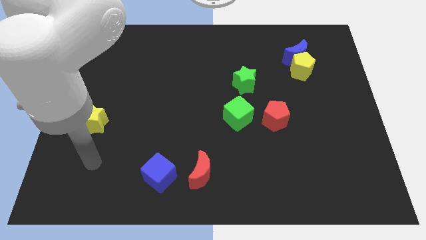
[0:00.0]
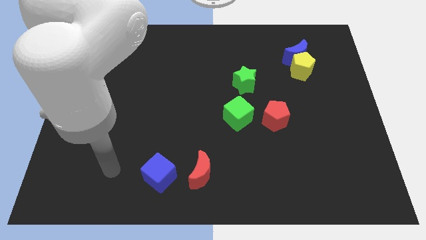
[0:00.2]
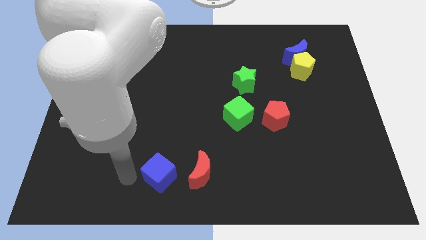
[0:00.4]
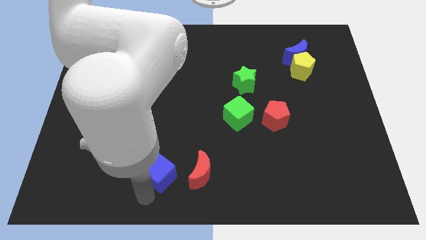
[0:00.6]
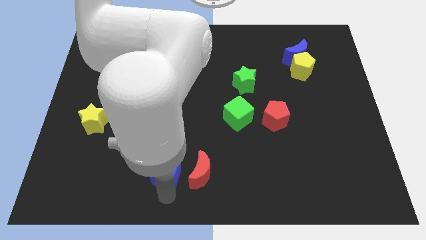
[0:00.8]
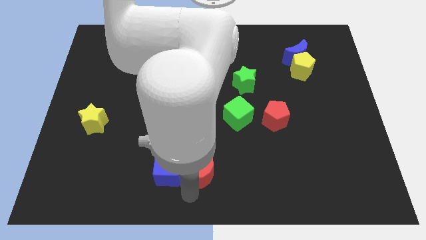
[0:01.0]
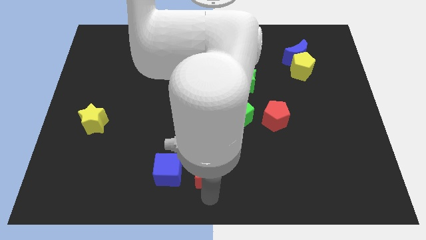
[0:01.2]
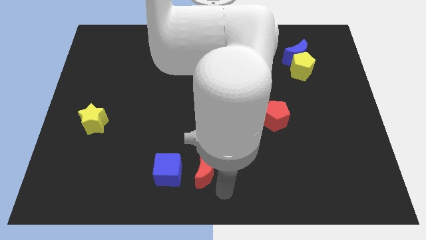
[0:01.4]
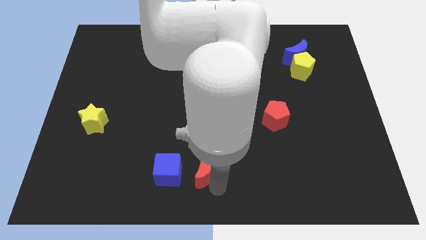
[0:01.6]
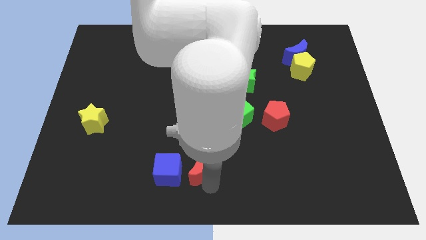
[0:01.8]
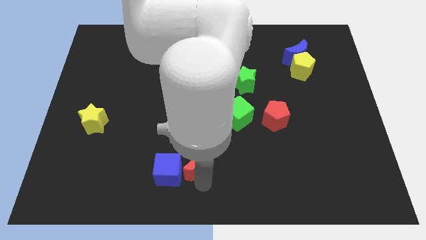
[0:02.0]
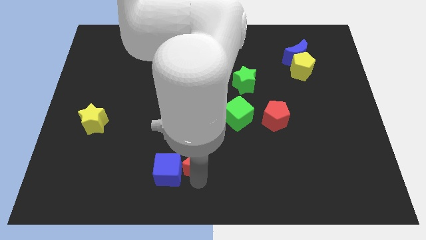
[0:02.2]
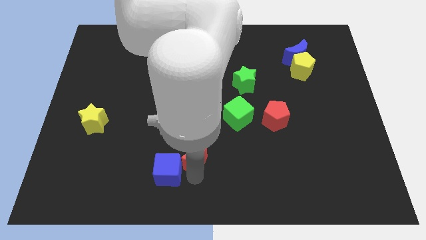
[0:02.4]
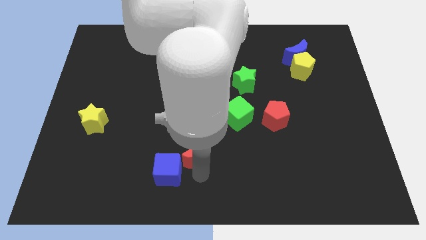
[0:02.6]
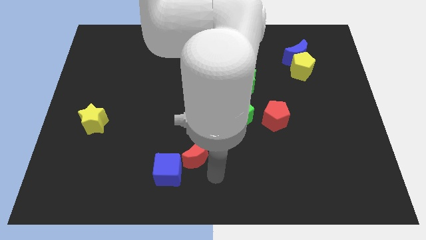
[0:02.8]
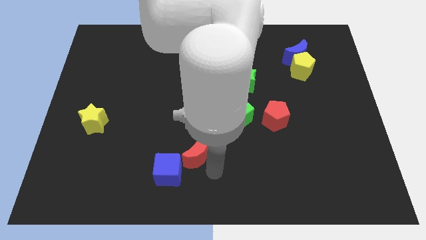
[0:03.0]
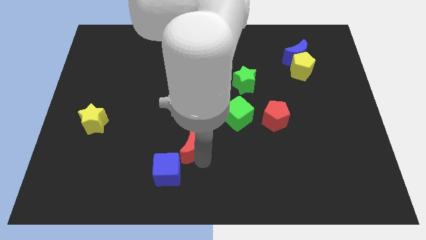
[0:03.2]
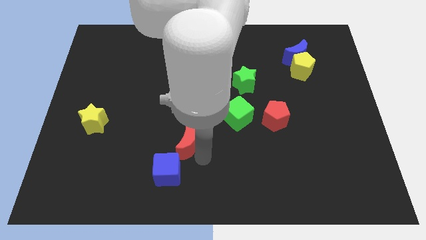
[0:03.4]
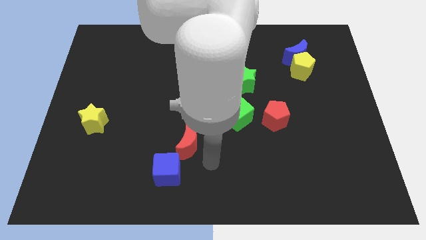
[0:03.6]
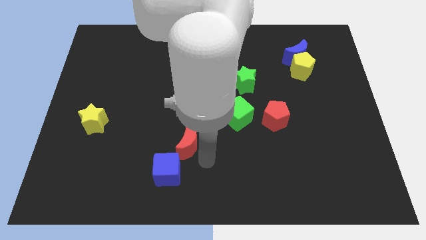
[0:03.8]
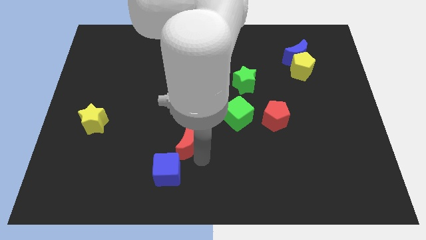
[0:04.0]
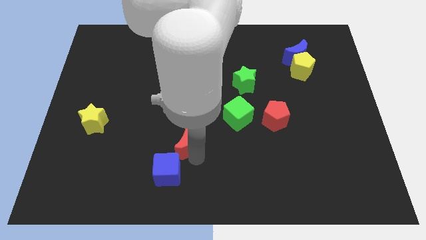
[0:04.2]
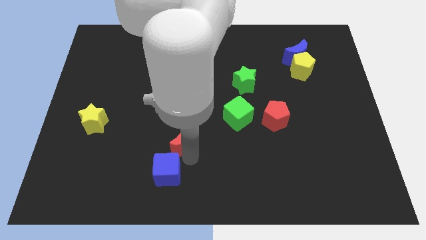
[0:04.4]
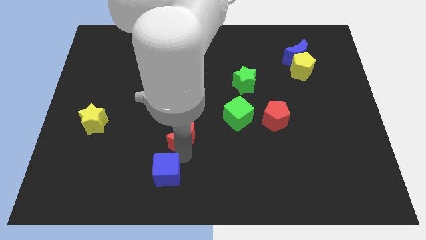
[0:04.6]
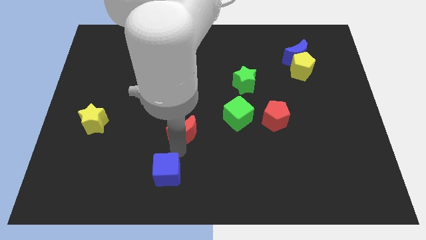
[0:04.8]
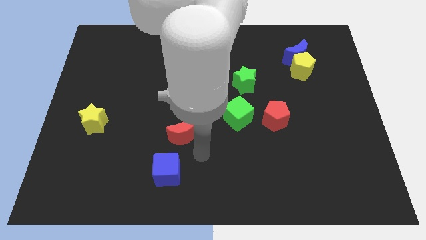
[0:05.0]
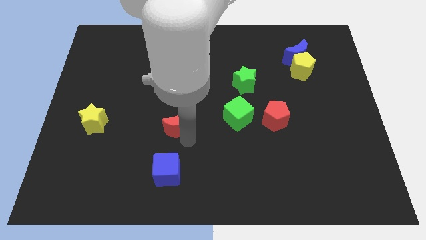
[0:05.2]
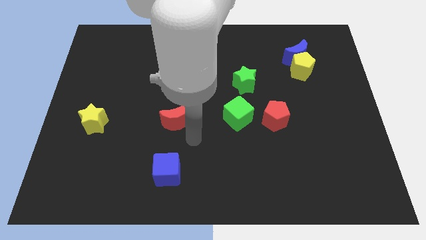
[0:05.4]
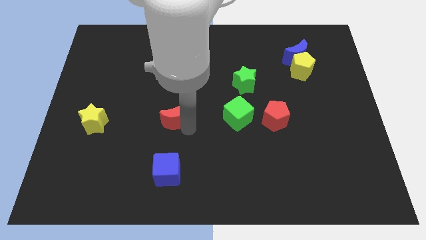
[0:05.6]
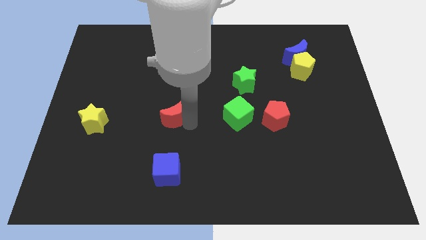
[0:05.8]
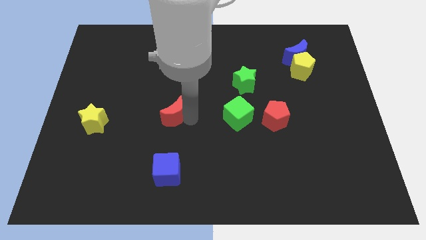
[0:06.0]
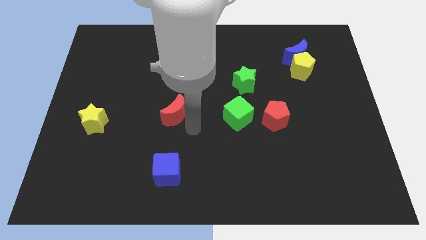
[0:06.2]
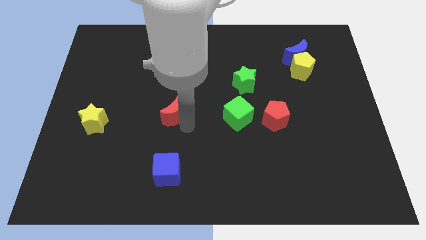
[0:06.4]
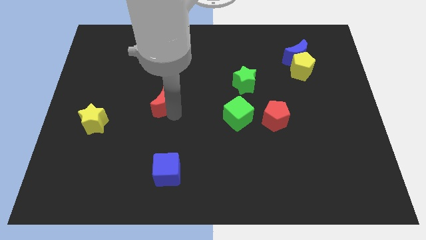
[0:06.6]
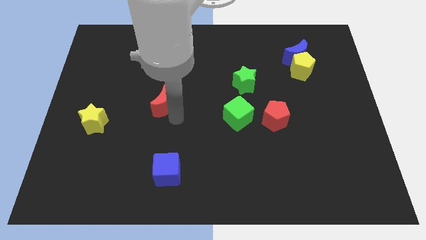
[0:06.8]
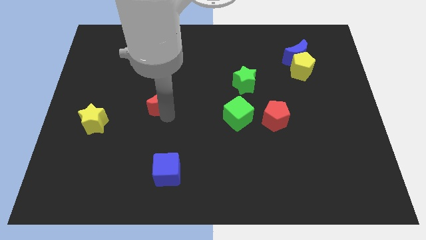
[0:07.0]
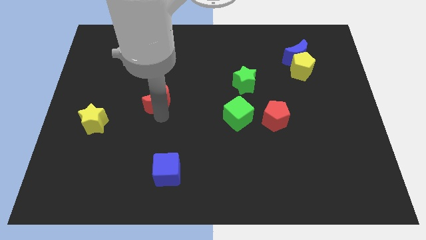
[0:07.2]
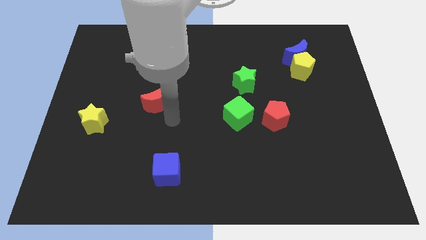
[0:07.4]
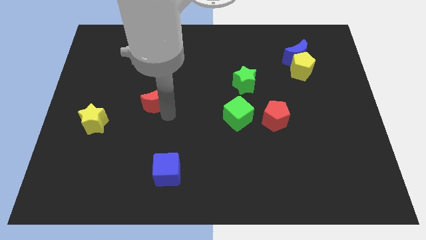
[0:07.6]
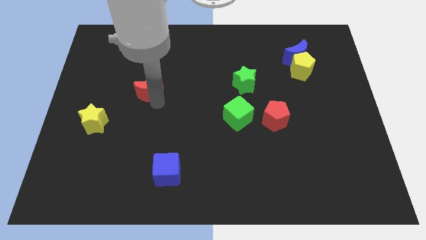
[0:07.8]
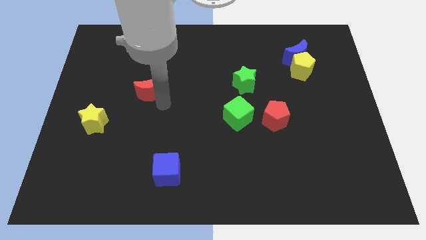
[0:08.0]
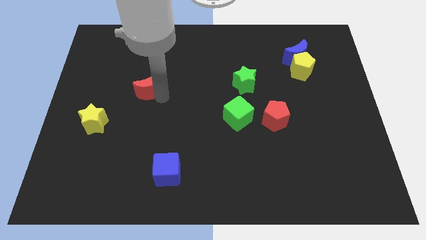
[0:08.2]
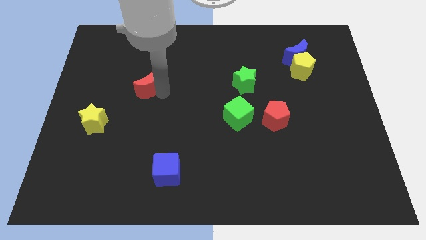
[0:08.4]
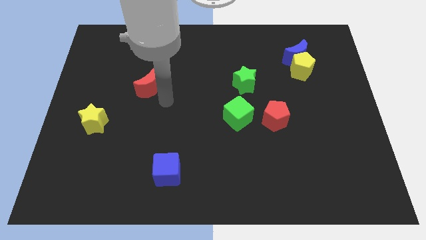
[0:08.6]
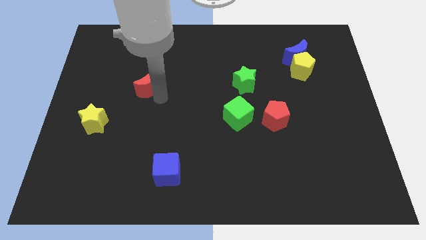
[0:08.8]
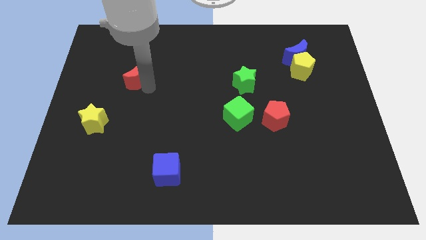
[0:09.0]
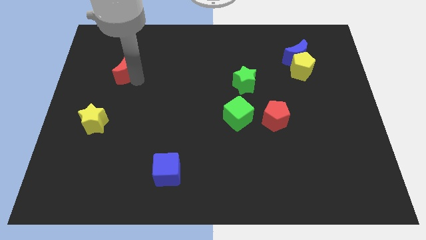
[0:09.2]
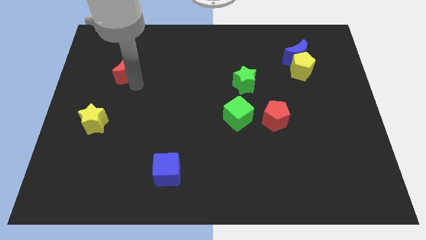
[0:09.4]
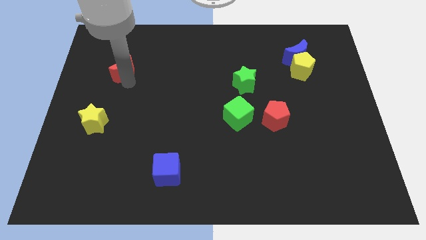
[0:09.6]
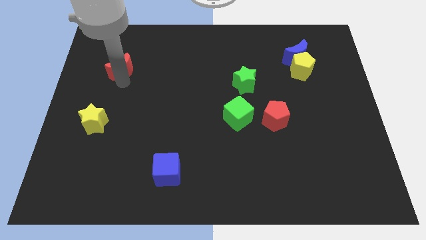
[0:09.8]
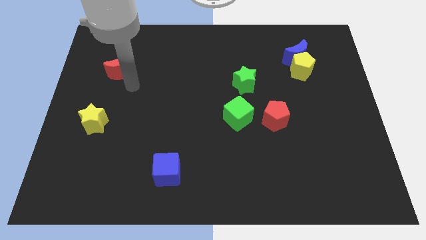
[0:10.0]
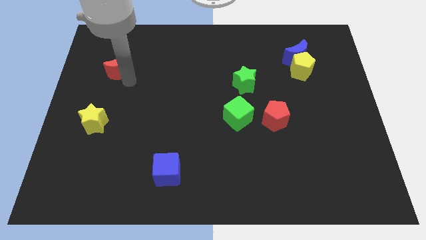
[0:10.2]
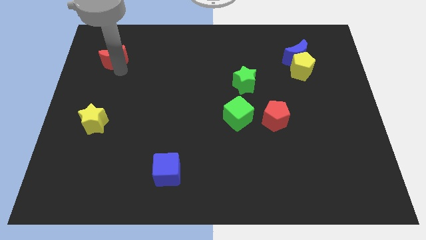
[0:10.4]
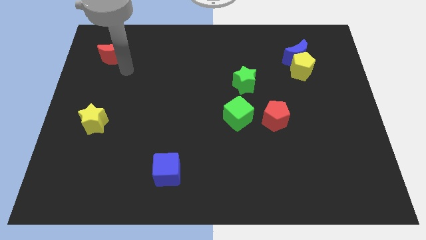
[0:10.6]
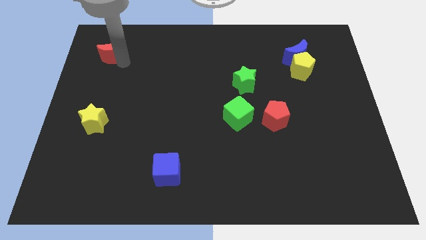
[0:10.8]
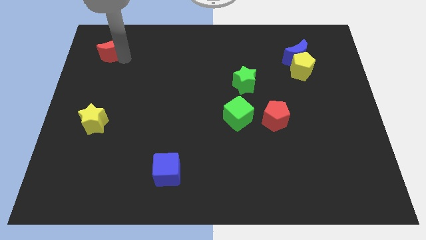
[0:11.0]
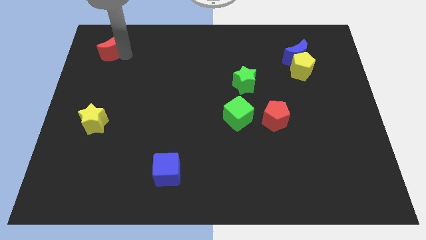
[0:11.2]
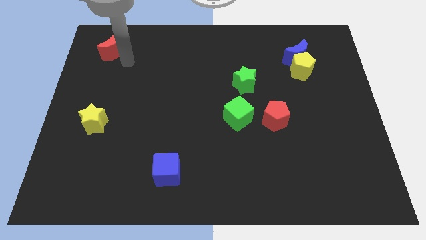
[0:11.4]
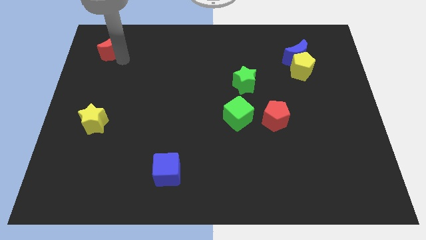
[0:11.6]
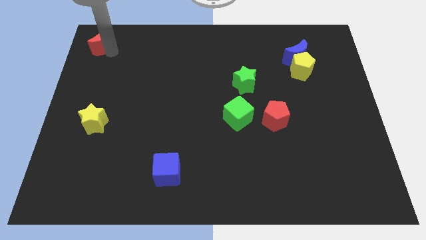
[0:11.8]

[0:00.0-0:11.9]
put the red moon to the upper left corner

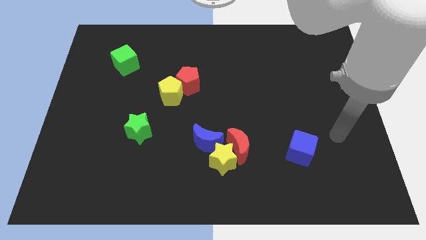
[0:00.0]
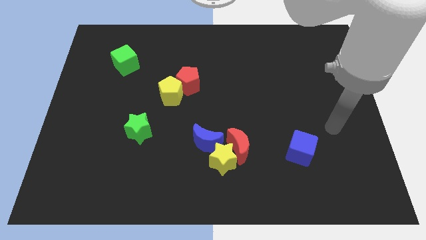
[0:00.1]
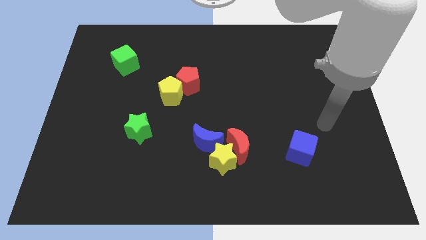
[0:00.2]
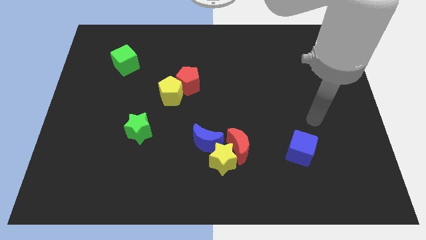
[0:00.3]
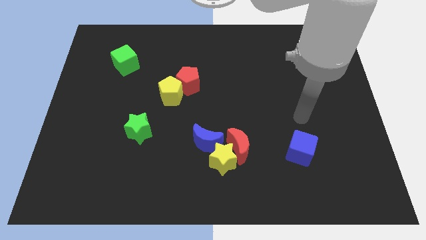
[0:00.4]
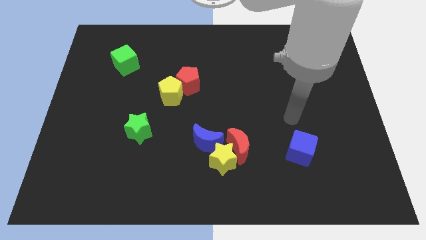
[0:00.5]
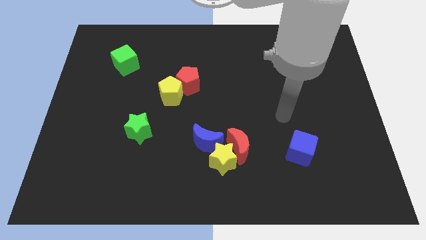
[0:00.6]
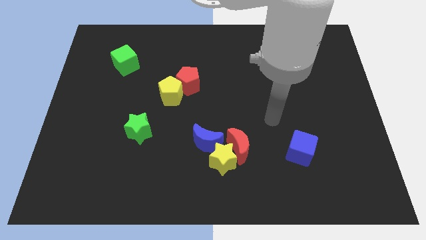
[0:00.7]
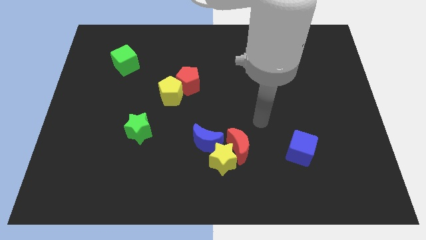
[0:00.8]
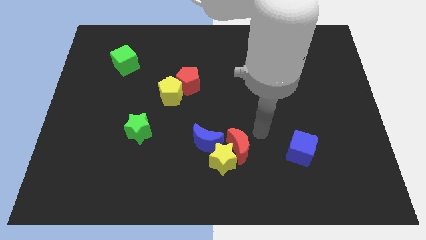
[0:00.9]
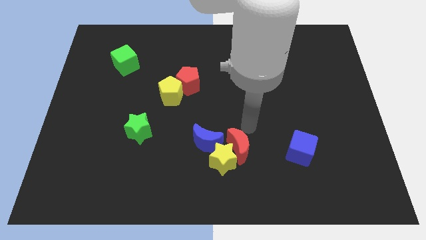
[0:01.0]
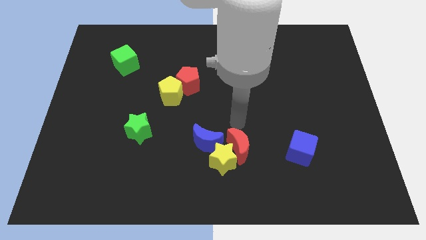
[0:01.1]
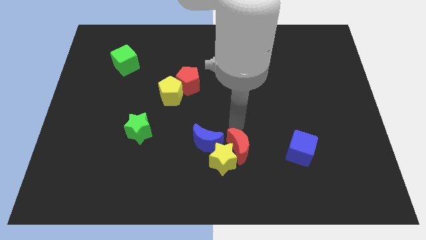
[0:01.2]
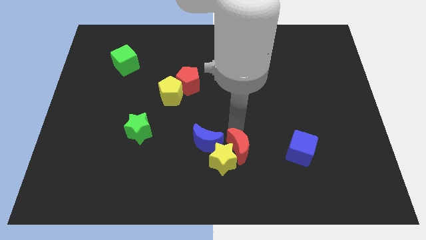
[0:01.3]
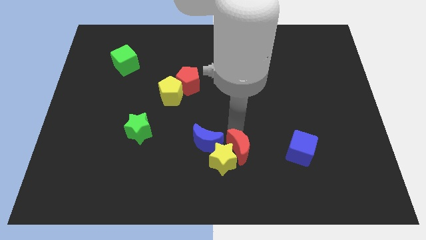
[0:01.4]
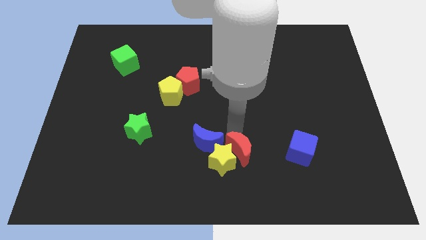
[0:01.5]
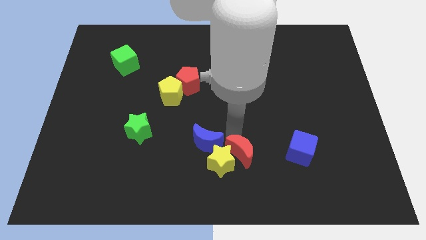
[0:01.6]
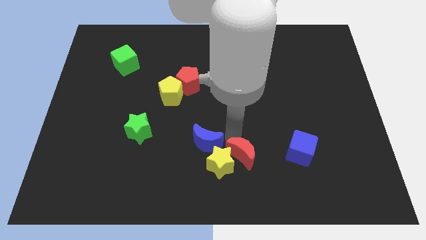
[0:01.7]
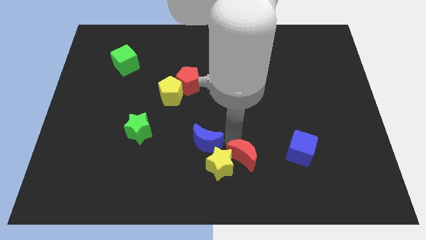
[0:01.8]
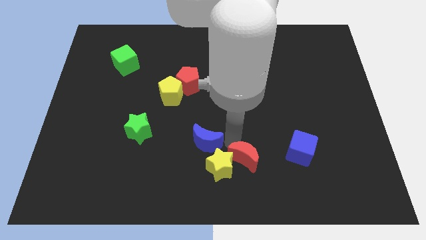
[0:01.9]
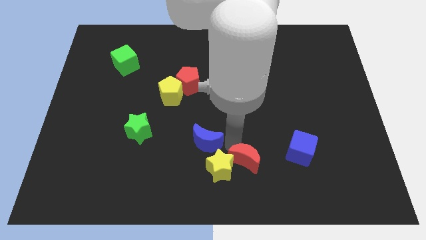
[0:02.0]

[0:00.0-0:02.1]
push the red moon to the bottom

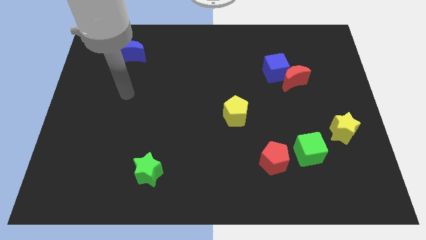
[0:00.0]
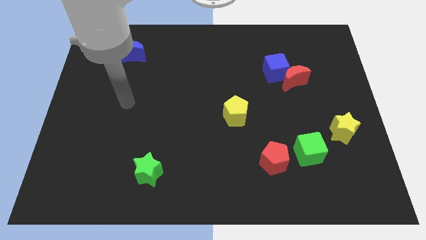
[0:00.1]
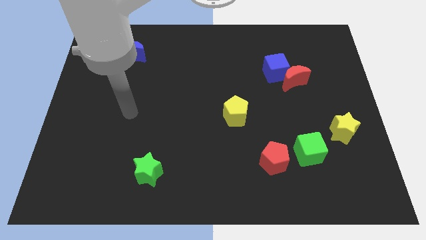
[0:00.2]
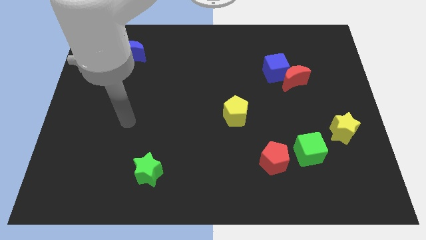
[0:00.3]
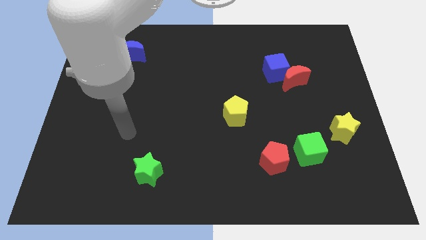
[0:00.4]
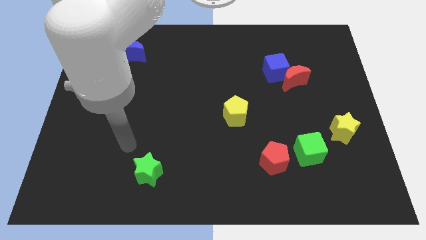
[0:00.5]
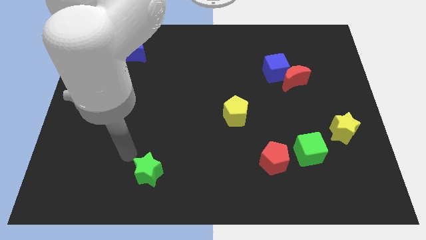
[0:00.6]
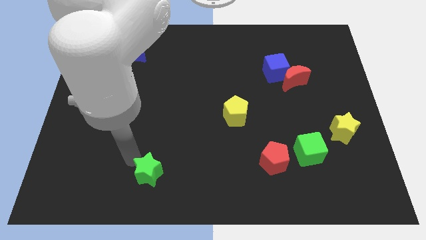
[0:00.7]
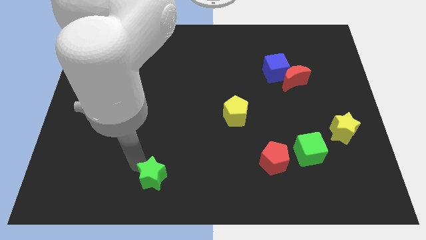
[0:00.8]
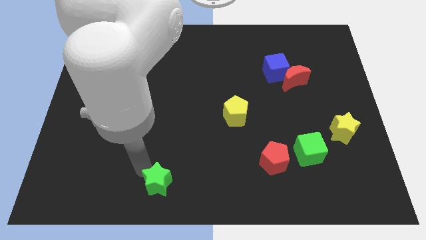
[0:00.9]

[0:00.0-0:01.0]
slide the green star to the bottom side
